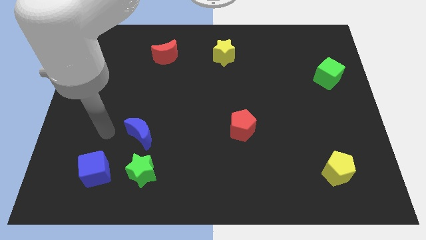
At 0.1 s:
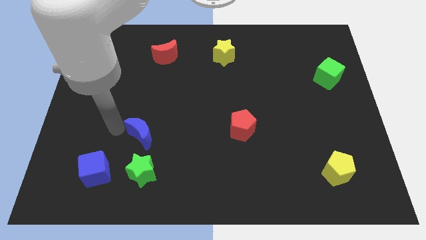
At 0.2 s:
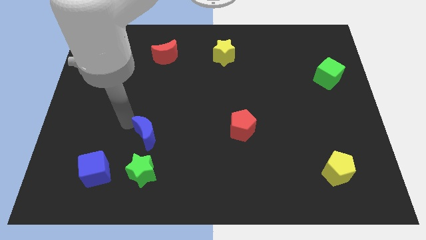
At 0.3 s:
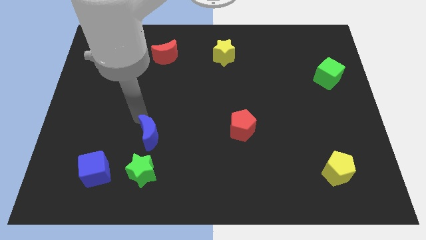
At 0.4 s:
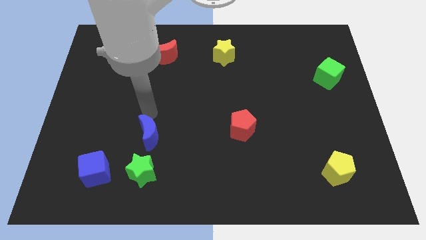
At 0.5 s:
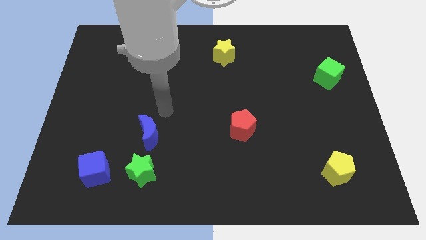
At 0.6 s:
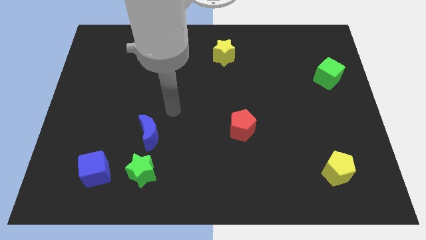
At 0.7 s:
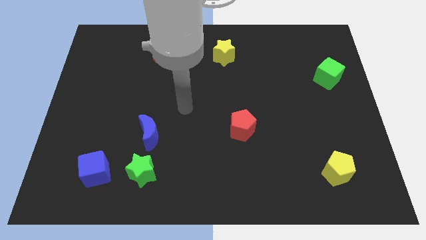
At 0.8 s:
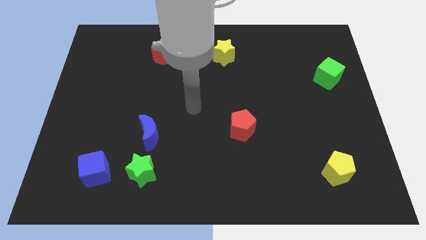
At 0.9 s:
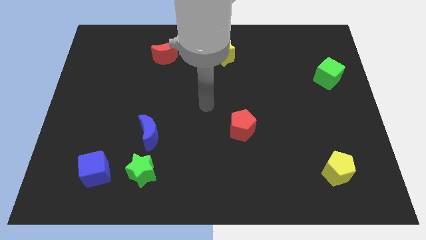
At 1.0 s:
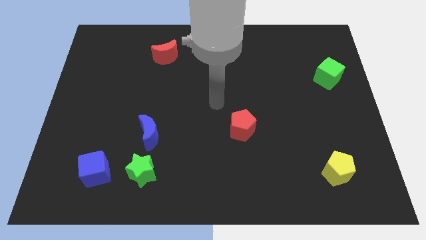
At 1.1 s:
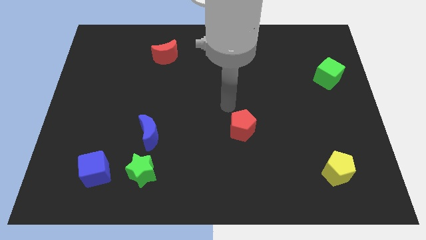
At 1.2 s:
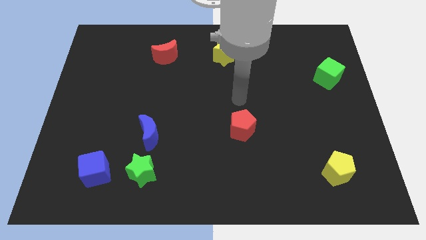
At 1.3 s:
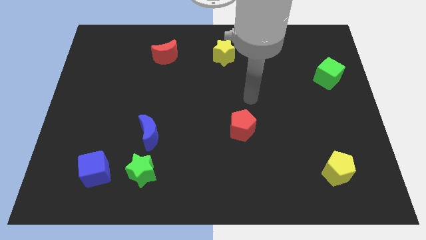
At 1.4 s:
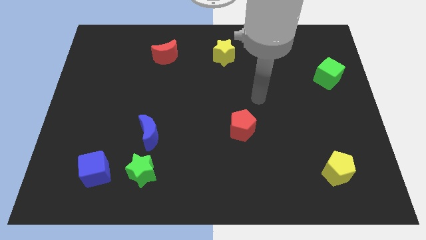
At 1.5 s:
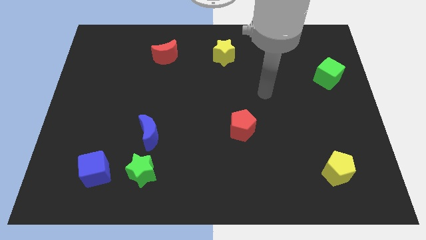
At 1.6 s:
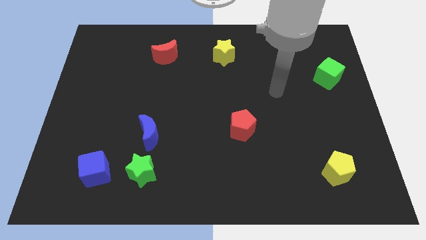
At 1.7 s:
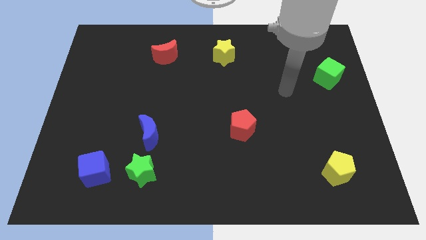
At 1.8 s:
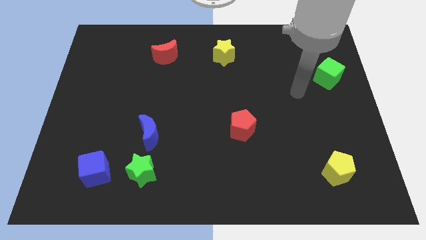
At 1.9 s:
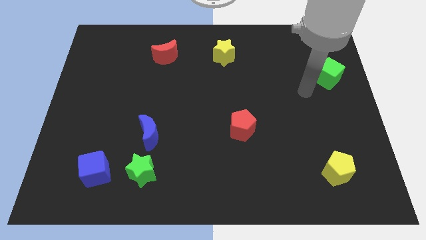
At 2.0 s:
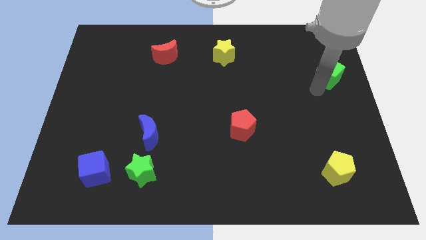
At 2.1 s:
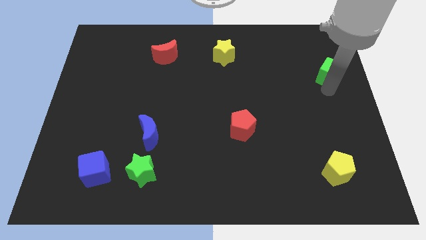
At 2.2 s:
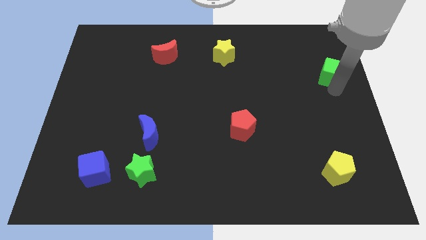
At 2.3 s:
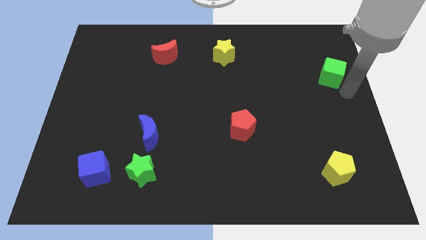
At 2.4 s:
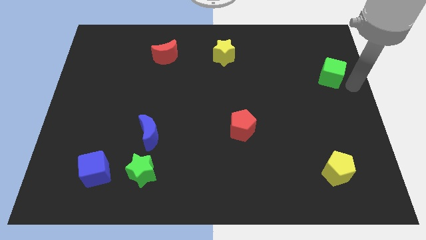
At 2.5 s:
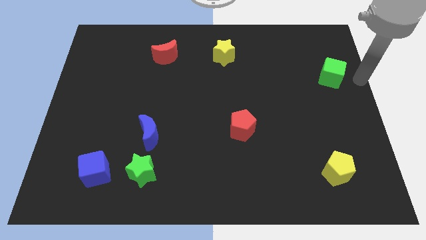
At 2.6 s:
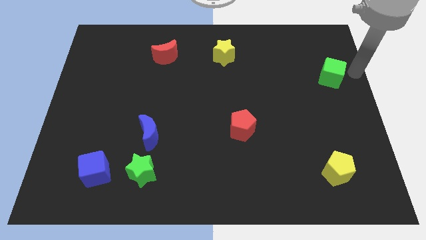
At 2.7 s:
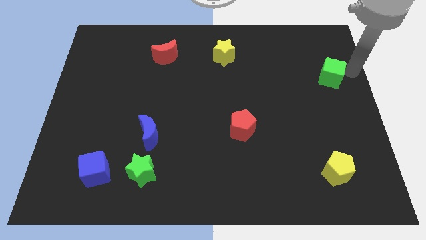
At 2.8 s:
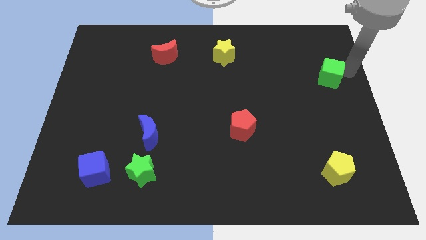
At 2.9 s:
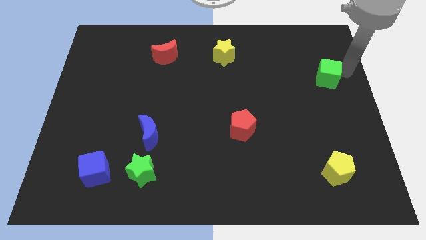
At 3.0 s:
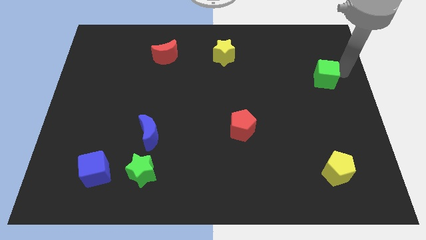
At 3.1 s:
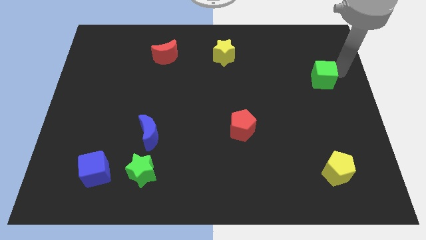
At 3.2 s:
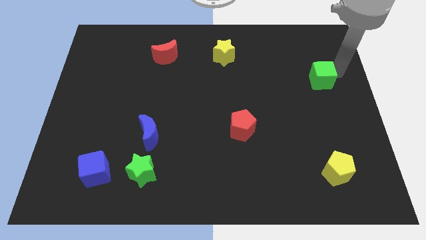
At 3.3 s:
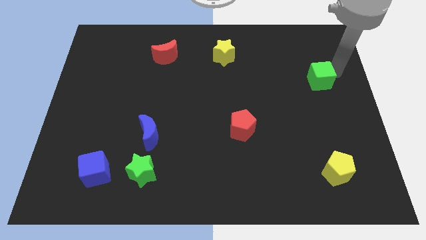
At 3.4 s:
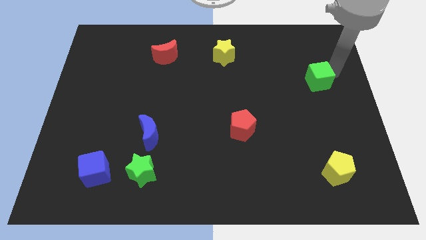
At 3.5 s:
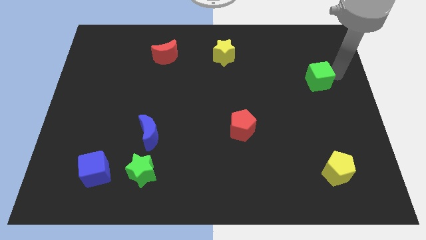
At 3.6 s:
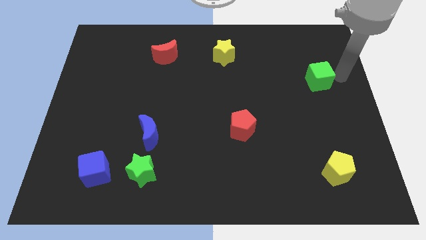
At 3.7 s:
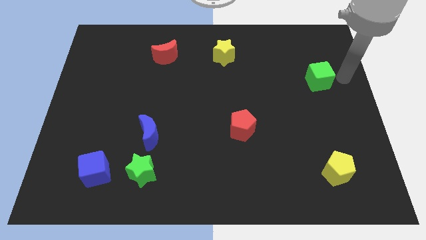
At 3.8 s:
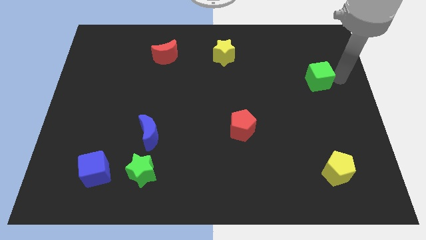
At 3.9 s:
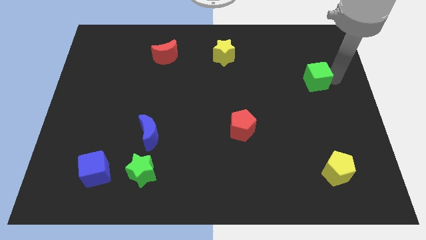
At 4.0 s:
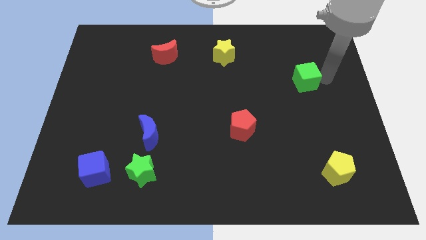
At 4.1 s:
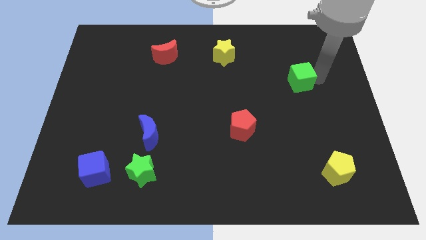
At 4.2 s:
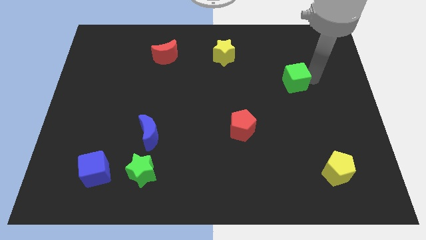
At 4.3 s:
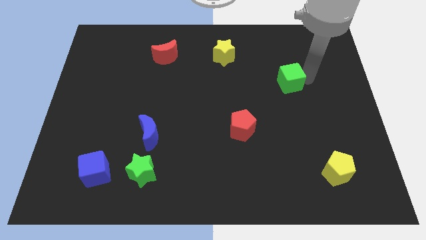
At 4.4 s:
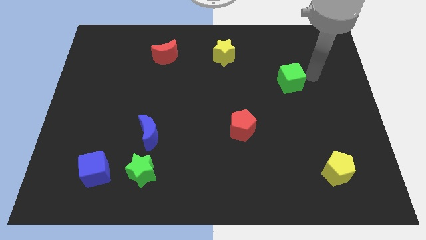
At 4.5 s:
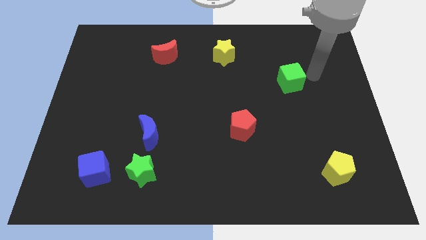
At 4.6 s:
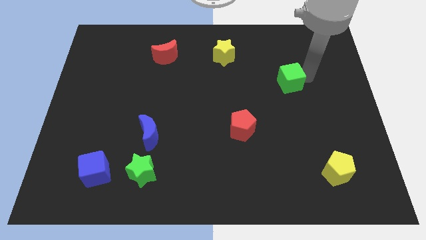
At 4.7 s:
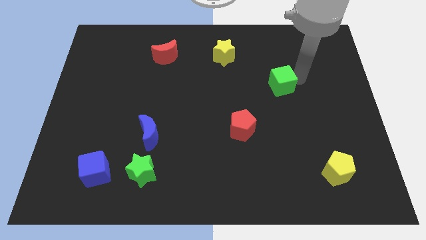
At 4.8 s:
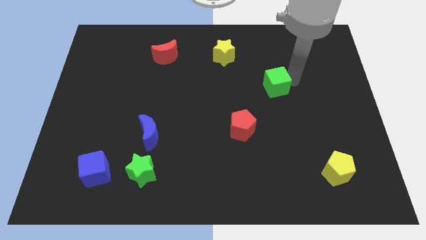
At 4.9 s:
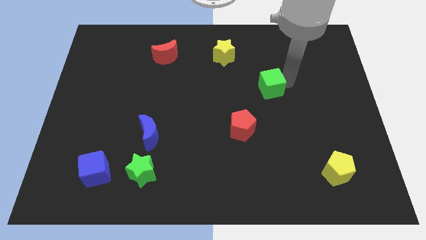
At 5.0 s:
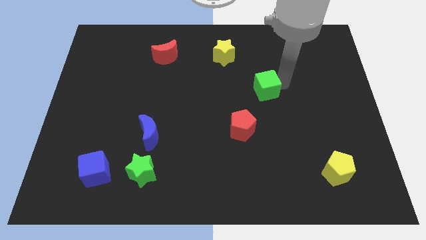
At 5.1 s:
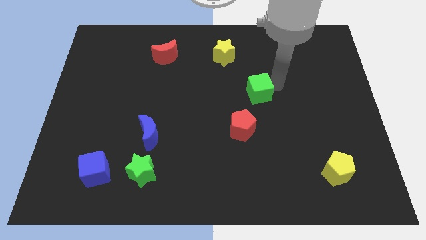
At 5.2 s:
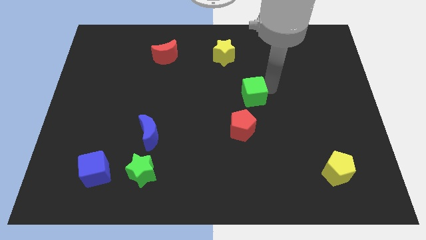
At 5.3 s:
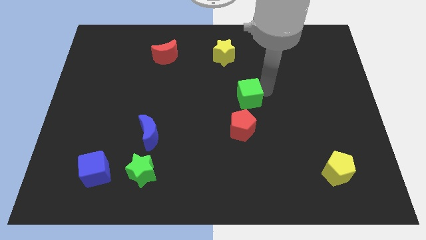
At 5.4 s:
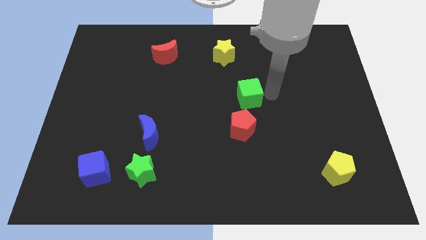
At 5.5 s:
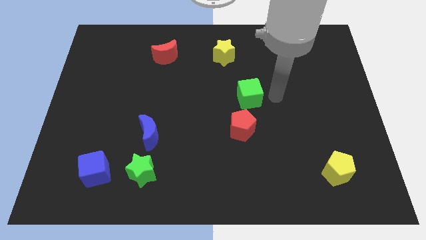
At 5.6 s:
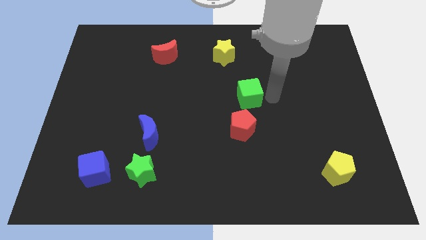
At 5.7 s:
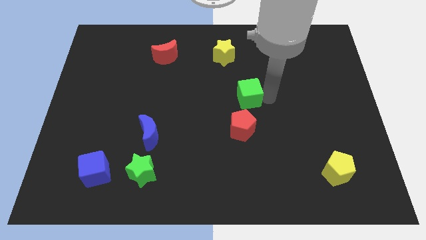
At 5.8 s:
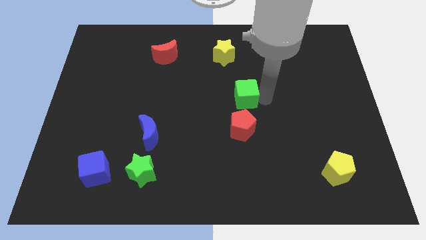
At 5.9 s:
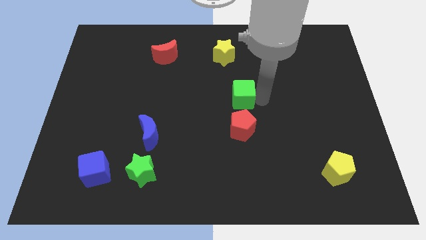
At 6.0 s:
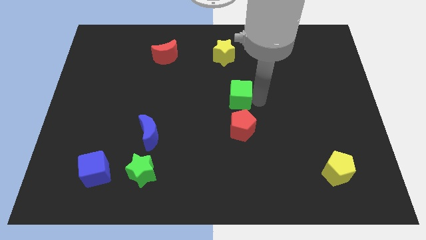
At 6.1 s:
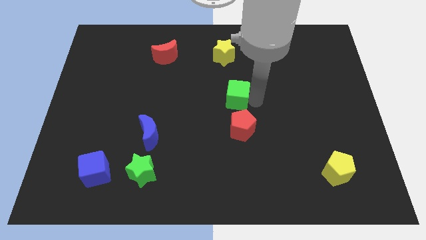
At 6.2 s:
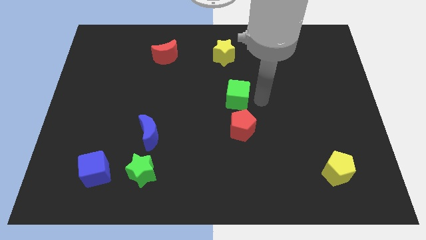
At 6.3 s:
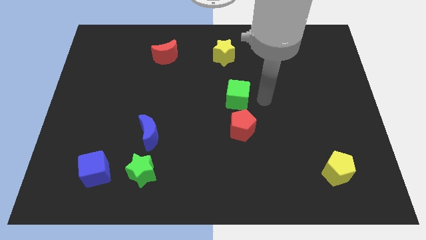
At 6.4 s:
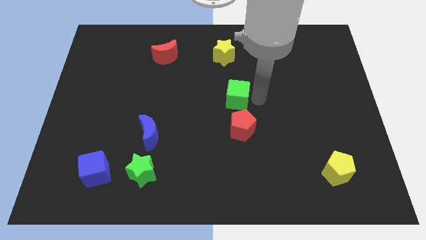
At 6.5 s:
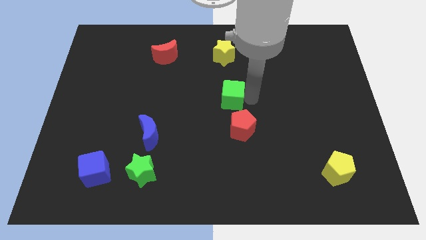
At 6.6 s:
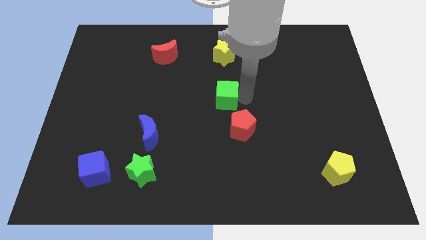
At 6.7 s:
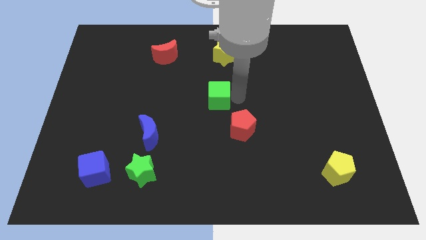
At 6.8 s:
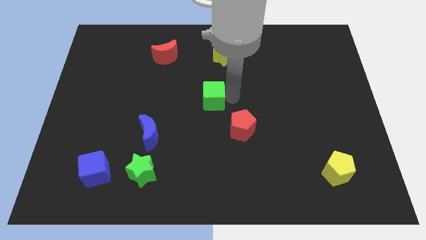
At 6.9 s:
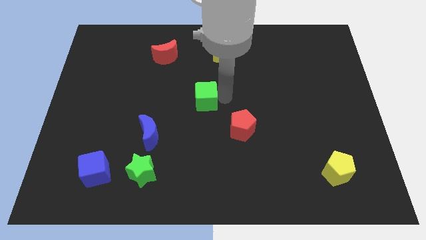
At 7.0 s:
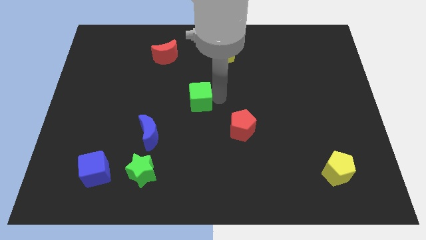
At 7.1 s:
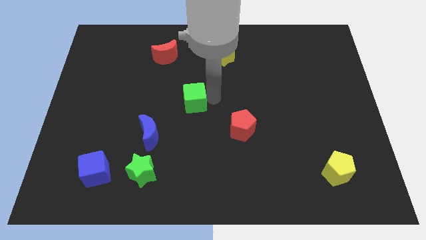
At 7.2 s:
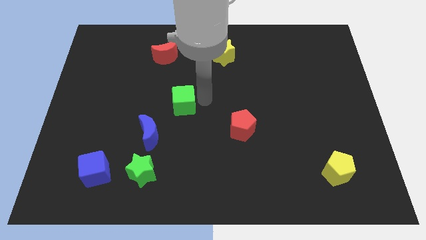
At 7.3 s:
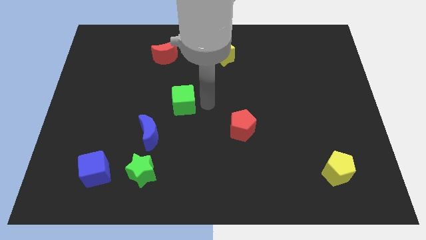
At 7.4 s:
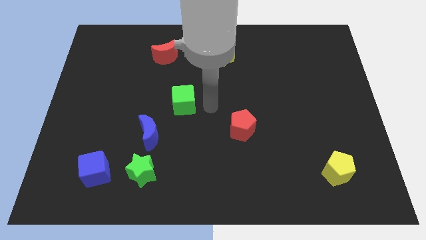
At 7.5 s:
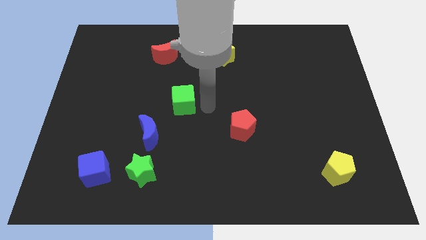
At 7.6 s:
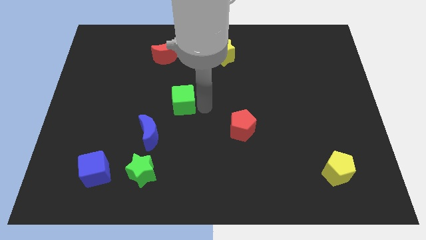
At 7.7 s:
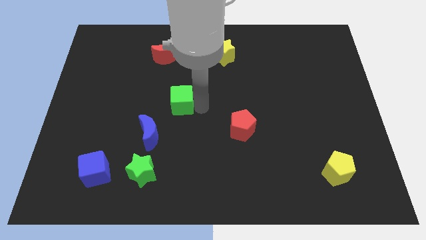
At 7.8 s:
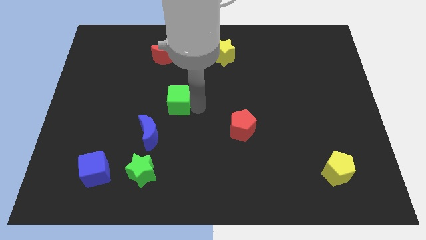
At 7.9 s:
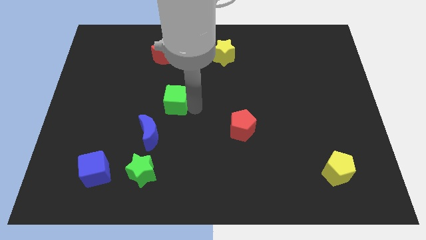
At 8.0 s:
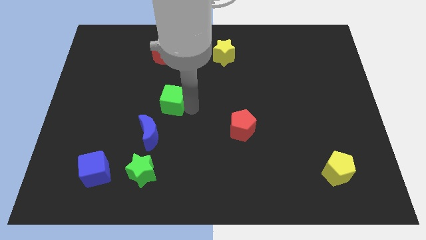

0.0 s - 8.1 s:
push the green cube to the top side of the blue moon
